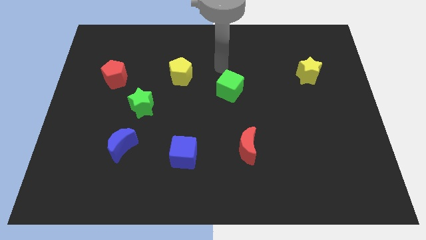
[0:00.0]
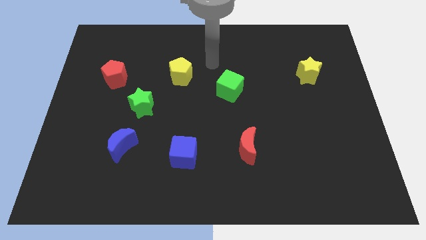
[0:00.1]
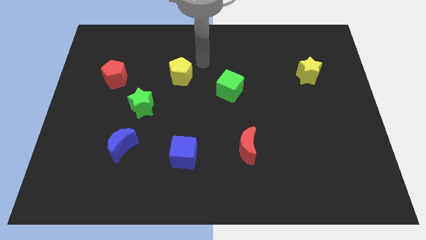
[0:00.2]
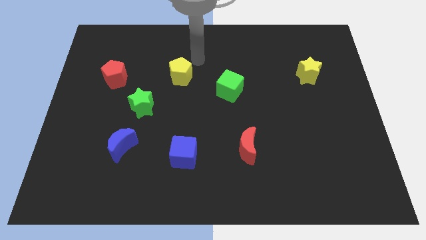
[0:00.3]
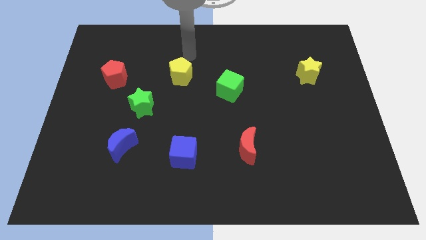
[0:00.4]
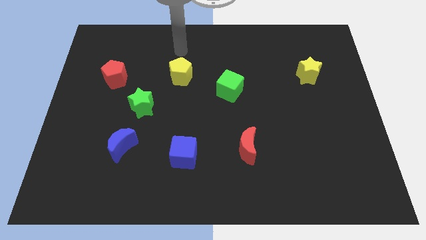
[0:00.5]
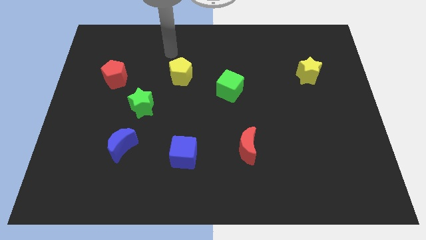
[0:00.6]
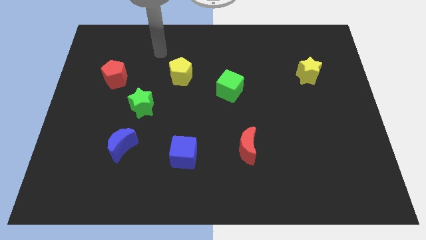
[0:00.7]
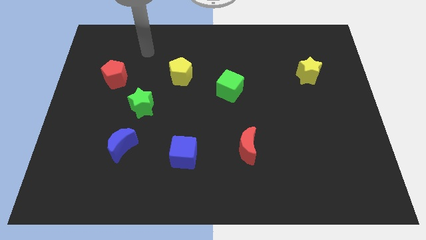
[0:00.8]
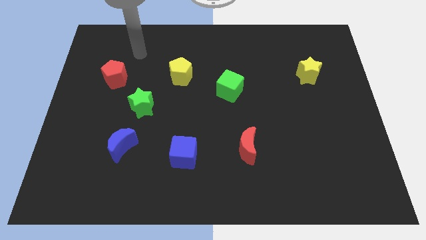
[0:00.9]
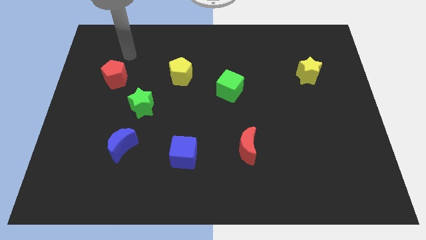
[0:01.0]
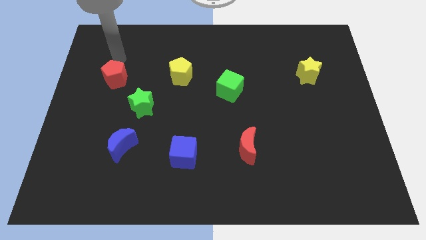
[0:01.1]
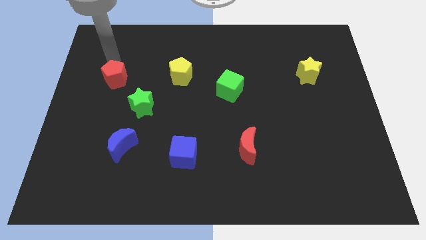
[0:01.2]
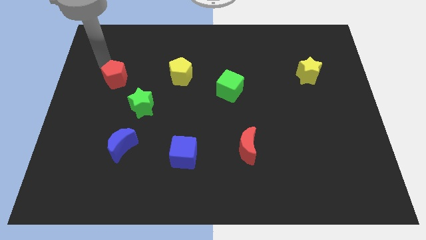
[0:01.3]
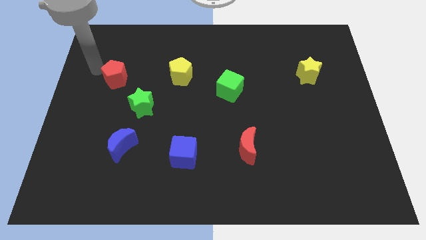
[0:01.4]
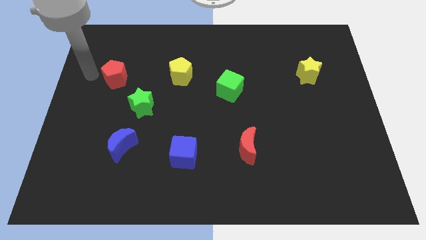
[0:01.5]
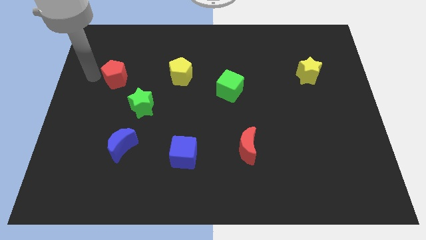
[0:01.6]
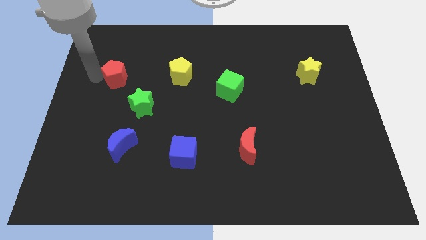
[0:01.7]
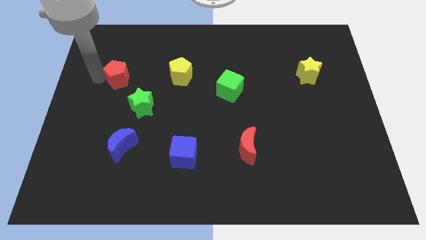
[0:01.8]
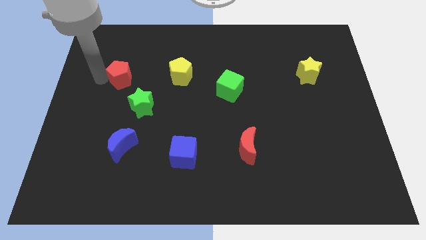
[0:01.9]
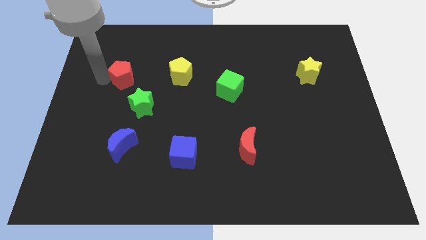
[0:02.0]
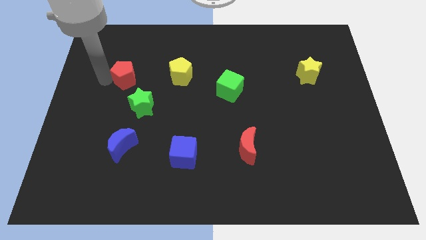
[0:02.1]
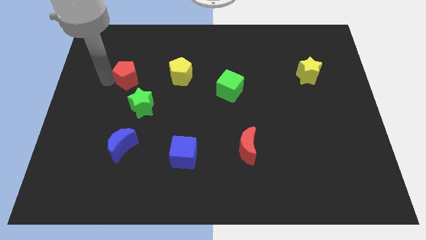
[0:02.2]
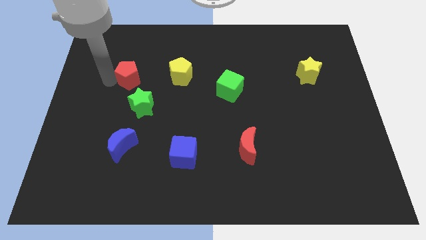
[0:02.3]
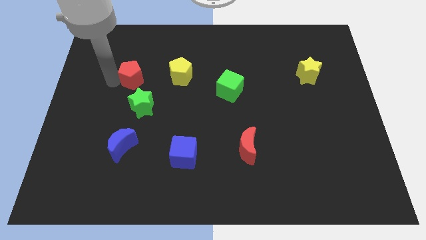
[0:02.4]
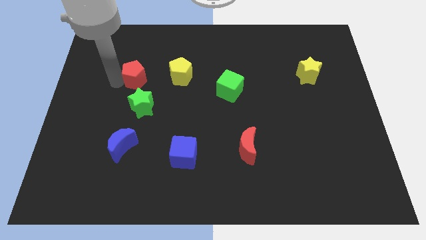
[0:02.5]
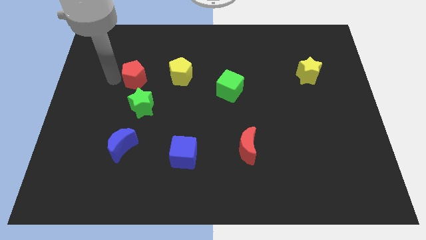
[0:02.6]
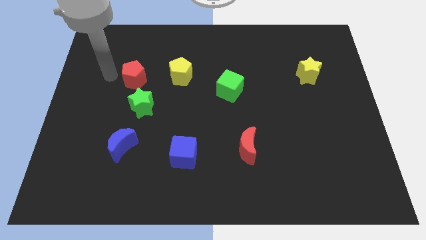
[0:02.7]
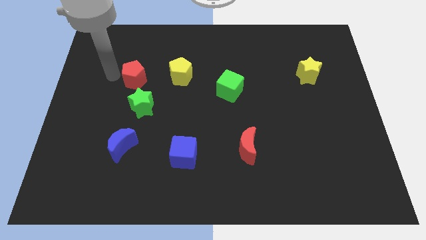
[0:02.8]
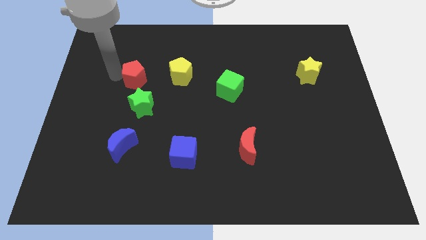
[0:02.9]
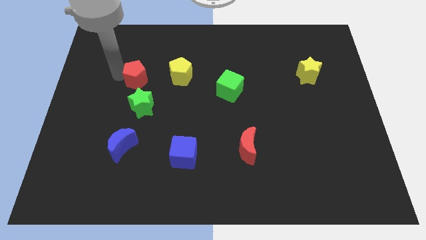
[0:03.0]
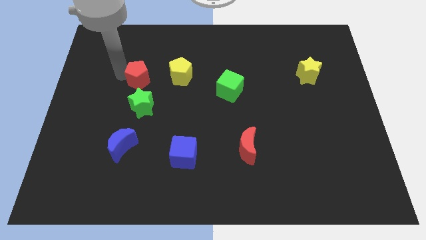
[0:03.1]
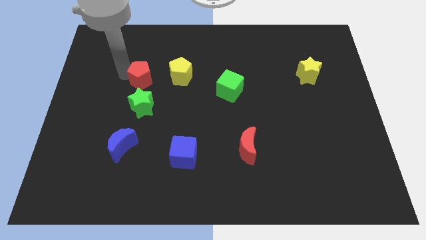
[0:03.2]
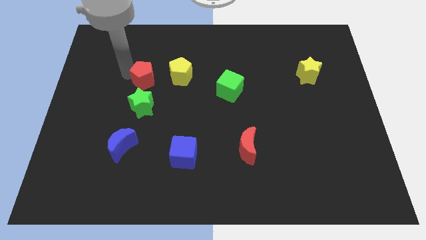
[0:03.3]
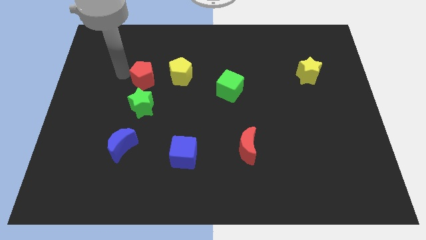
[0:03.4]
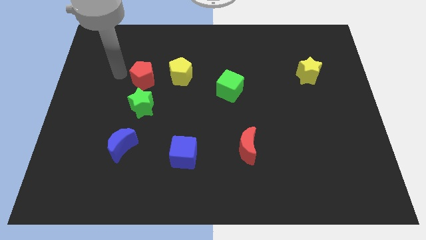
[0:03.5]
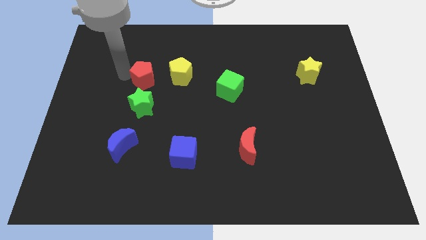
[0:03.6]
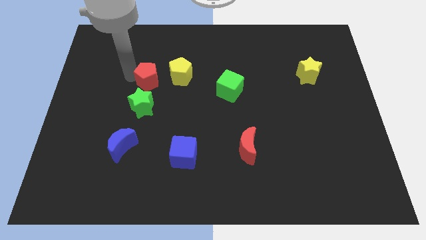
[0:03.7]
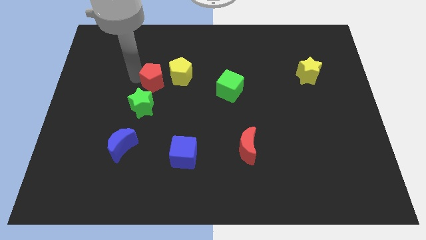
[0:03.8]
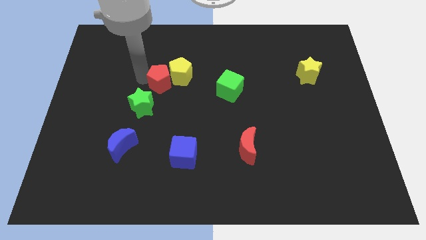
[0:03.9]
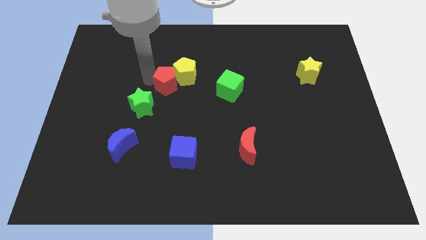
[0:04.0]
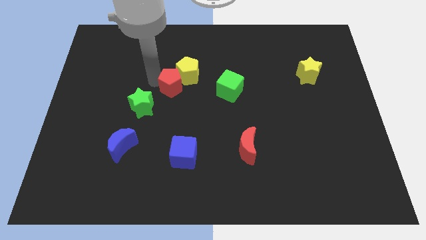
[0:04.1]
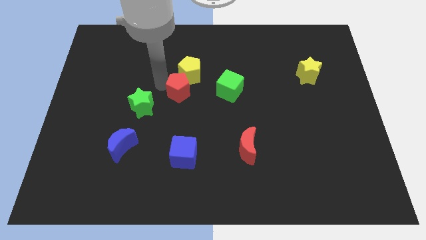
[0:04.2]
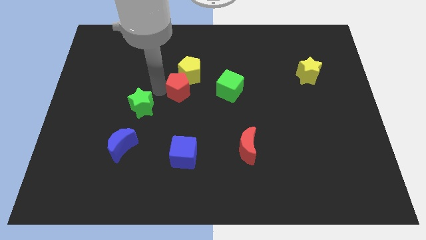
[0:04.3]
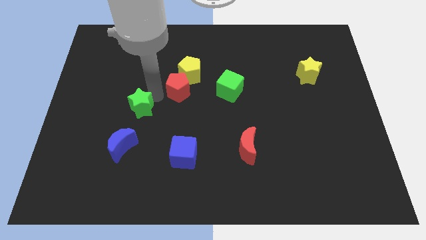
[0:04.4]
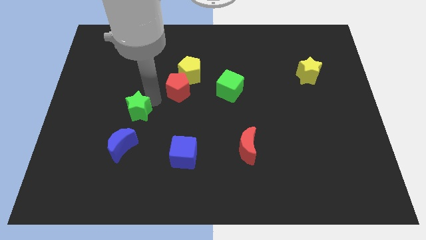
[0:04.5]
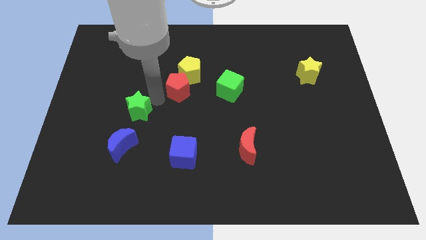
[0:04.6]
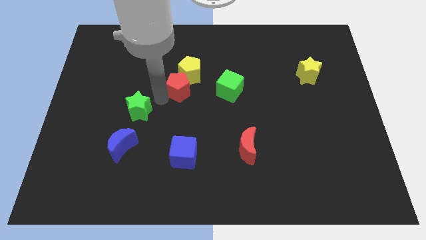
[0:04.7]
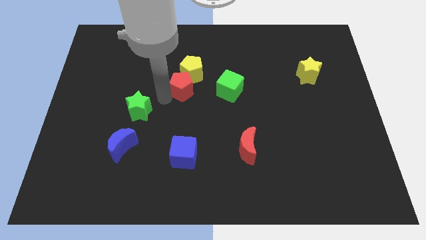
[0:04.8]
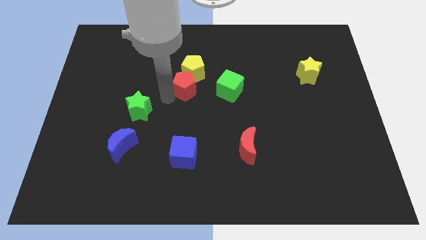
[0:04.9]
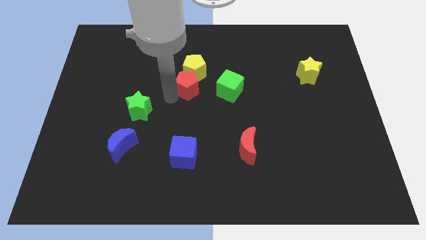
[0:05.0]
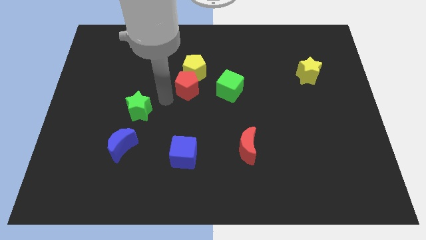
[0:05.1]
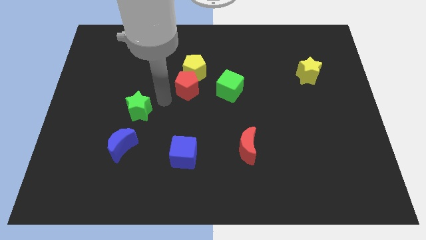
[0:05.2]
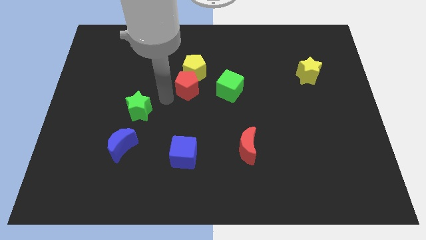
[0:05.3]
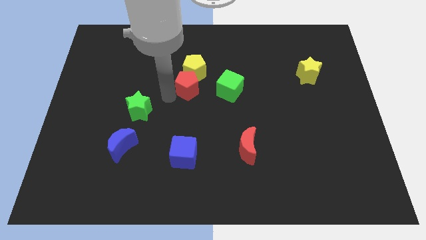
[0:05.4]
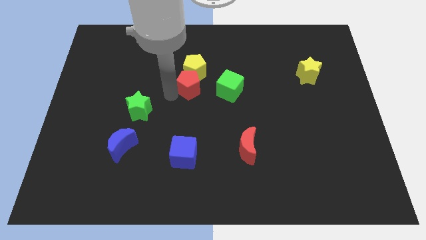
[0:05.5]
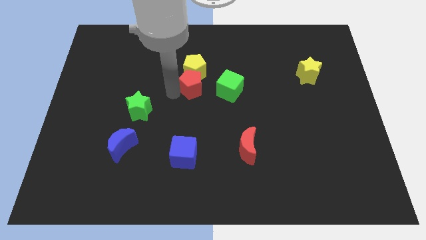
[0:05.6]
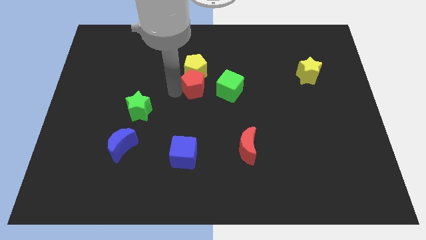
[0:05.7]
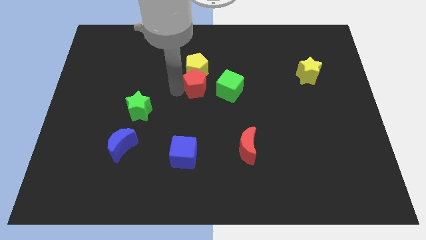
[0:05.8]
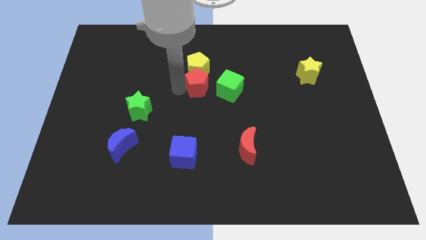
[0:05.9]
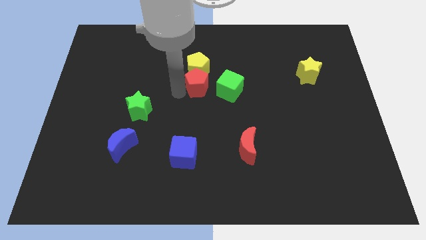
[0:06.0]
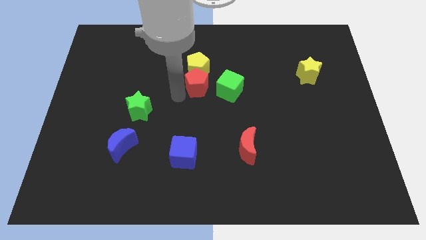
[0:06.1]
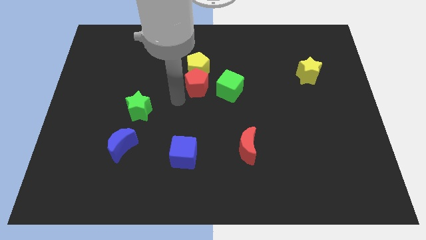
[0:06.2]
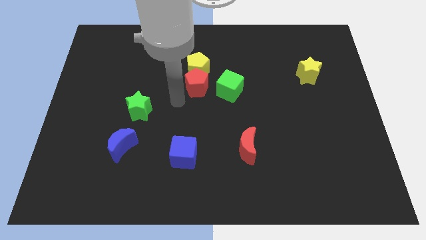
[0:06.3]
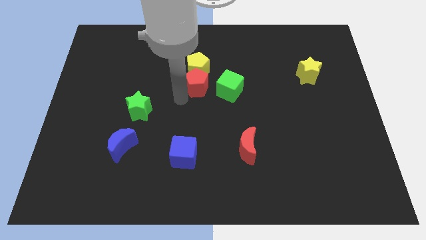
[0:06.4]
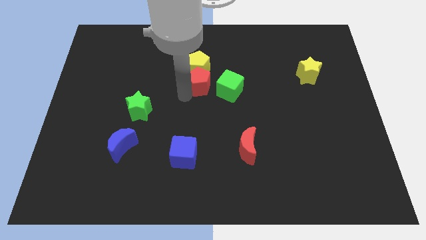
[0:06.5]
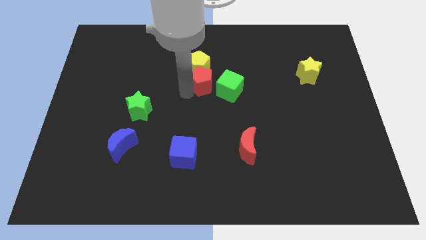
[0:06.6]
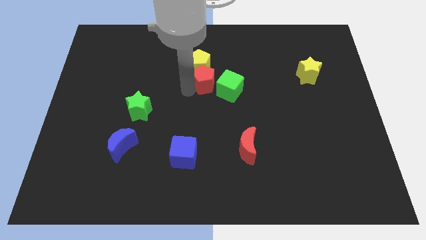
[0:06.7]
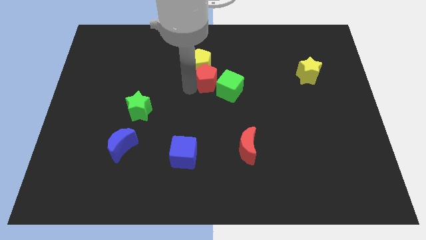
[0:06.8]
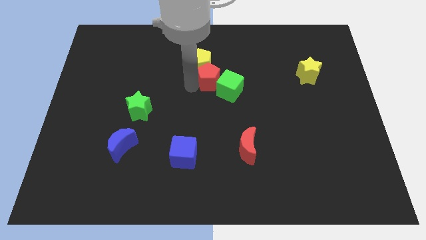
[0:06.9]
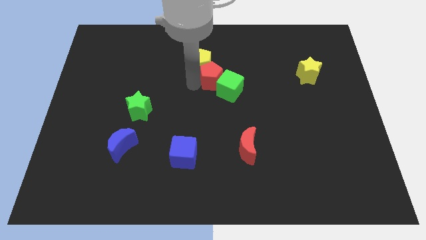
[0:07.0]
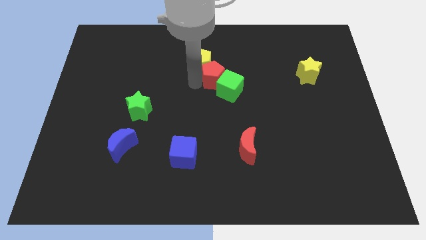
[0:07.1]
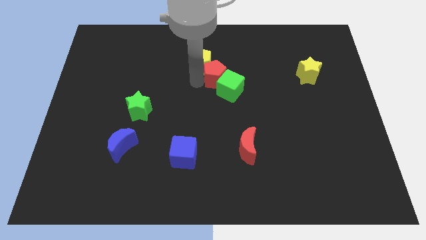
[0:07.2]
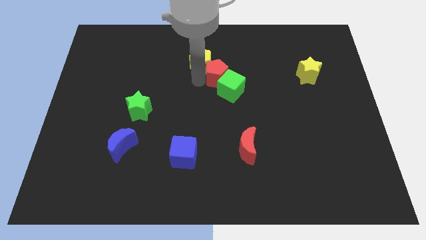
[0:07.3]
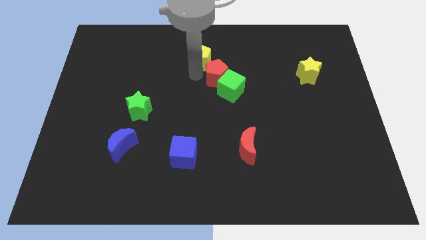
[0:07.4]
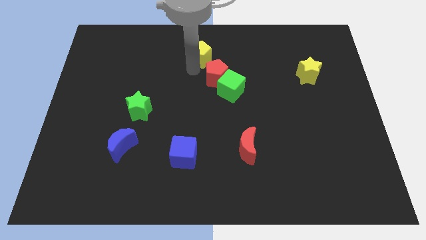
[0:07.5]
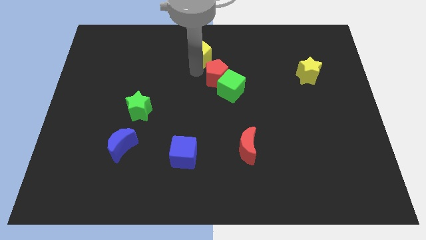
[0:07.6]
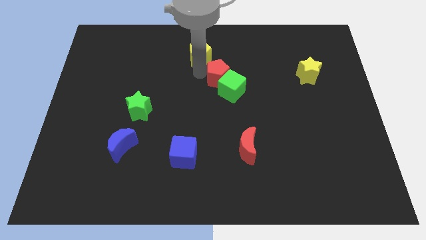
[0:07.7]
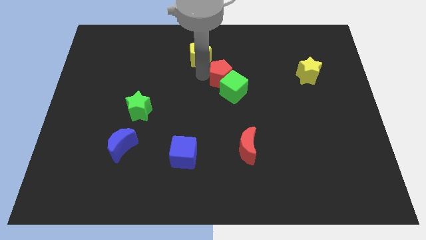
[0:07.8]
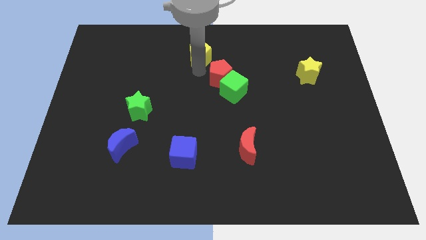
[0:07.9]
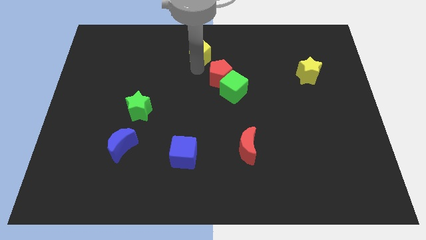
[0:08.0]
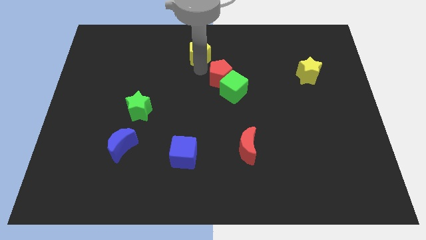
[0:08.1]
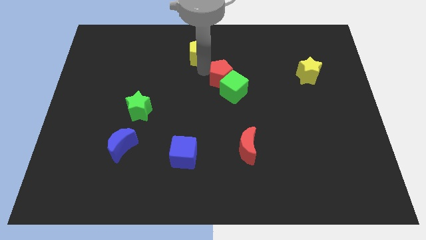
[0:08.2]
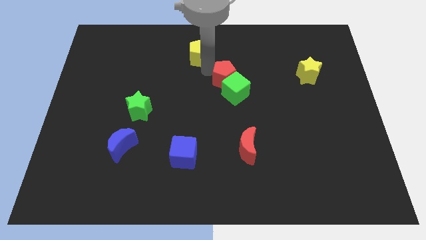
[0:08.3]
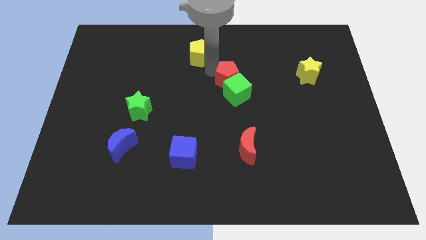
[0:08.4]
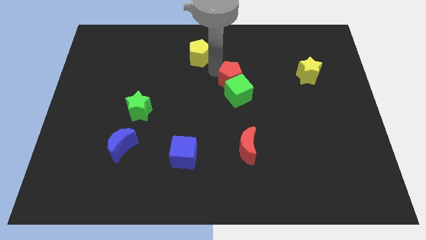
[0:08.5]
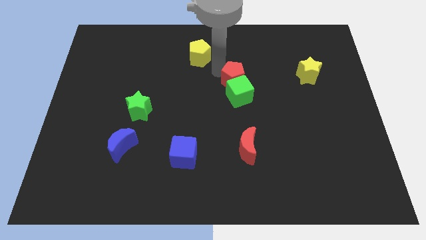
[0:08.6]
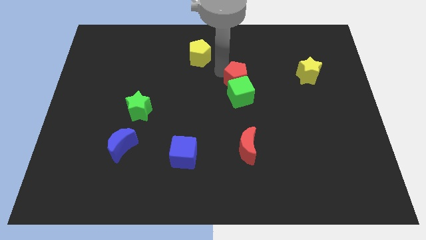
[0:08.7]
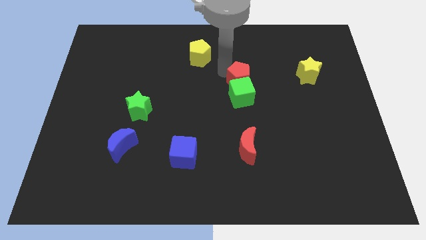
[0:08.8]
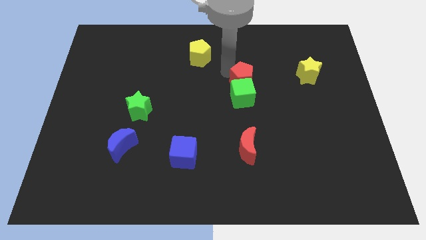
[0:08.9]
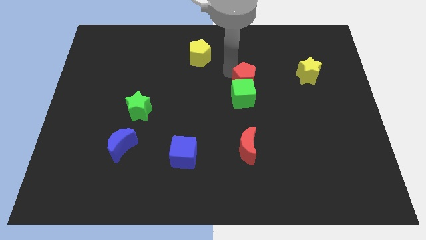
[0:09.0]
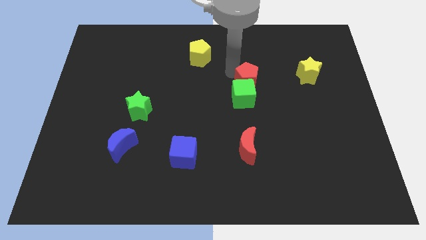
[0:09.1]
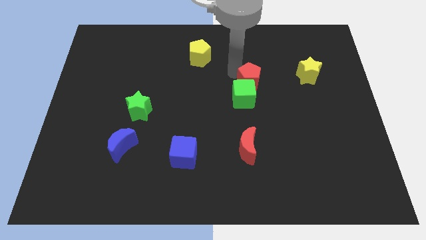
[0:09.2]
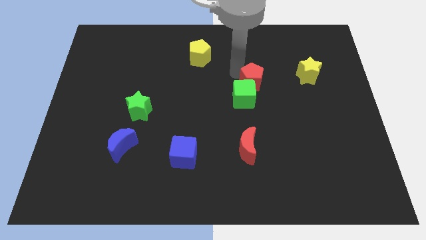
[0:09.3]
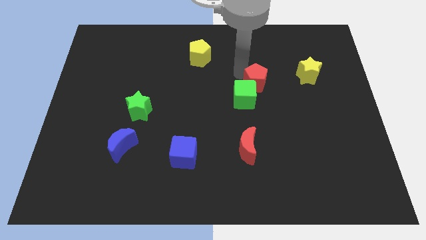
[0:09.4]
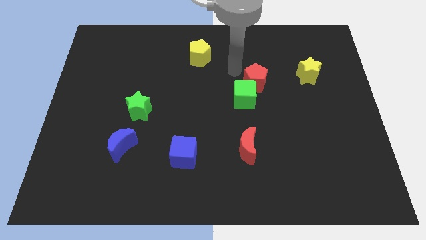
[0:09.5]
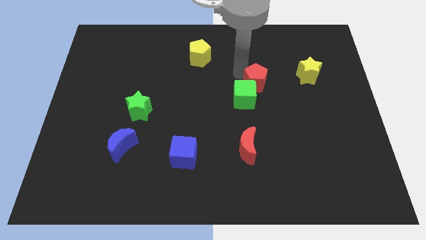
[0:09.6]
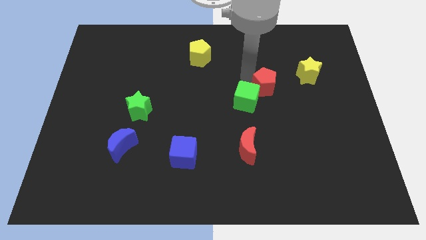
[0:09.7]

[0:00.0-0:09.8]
push the red pentagon right of the green cube
